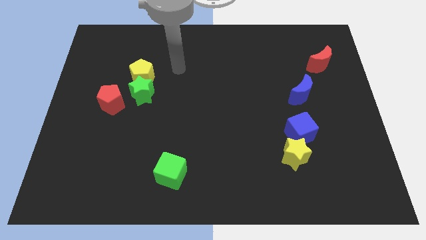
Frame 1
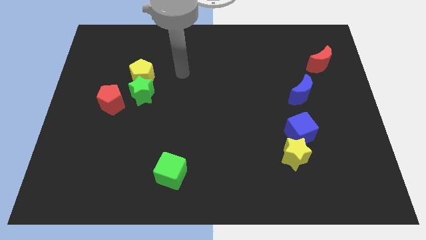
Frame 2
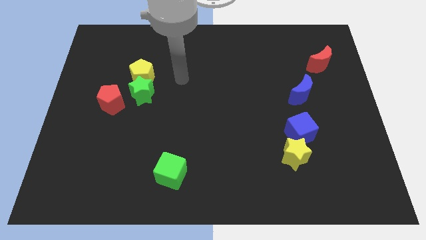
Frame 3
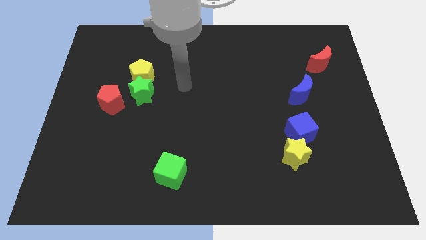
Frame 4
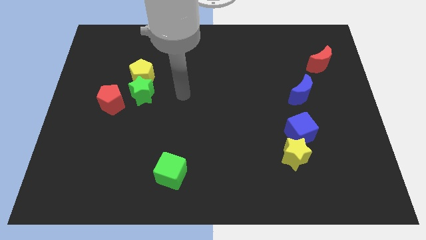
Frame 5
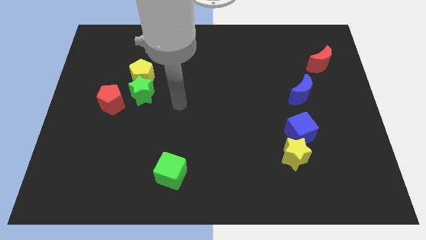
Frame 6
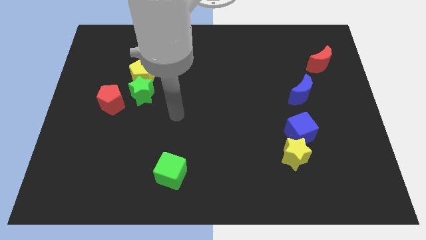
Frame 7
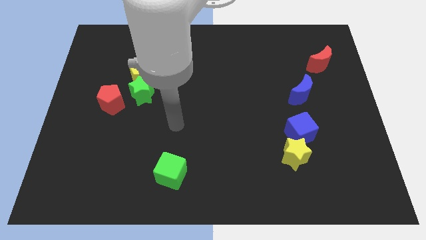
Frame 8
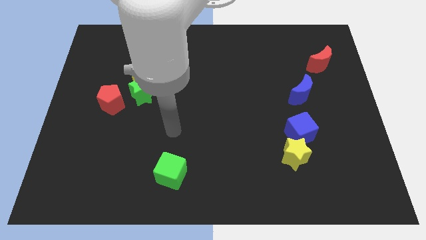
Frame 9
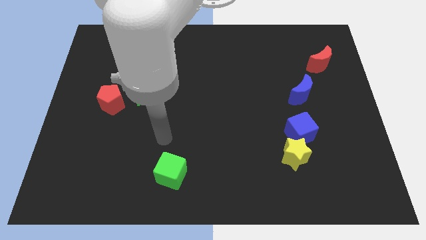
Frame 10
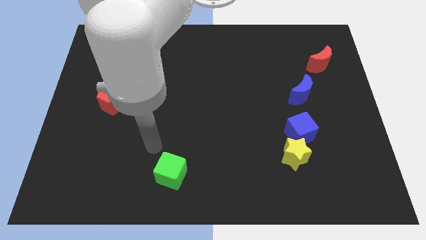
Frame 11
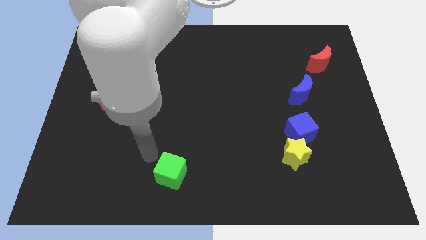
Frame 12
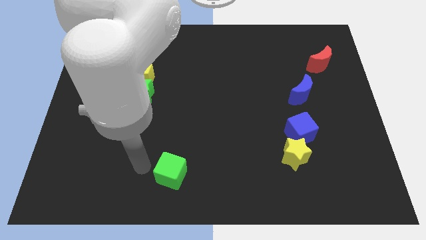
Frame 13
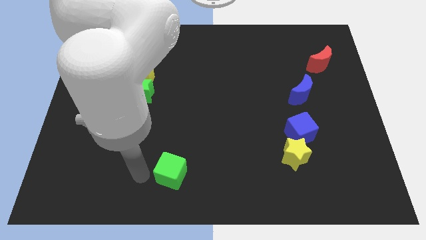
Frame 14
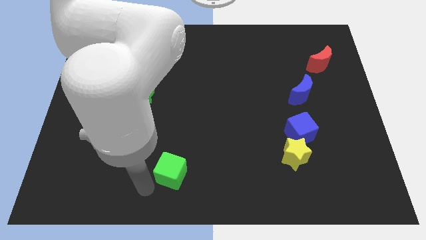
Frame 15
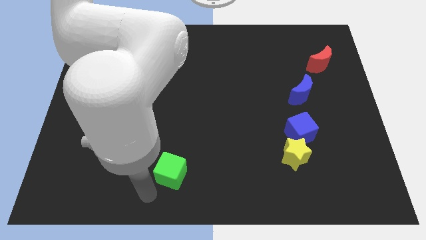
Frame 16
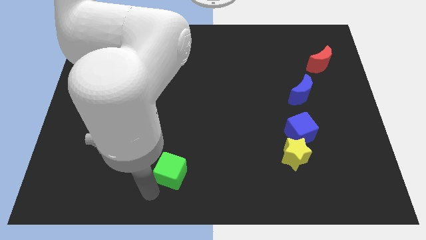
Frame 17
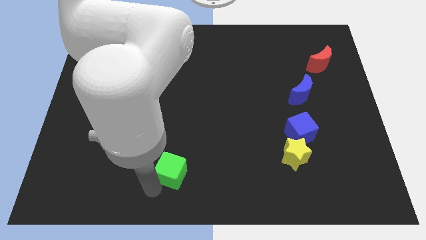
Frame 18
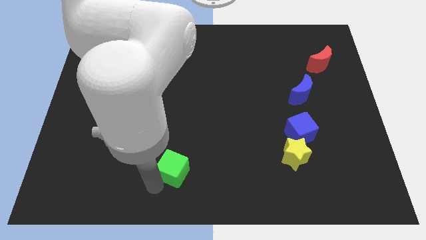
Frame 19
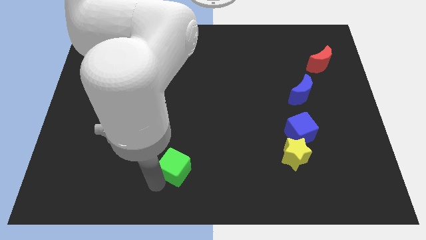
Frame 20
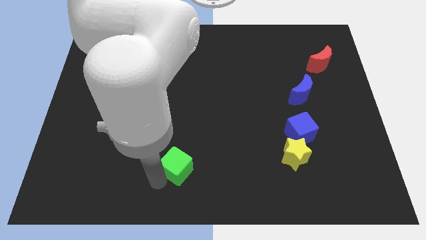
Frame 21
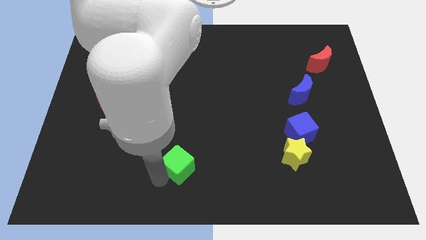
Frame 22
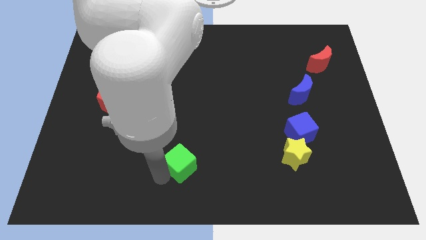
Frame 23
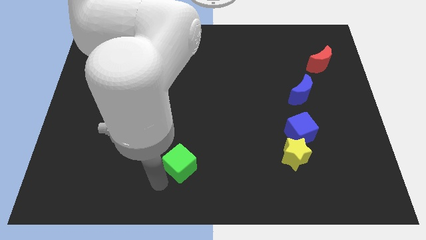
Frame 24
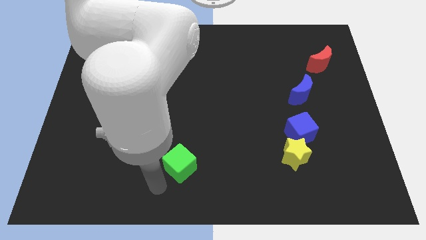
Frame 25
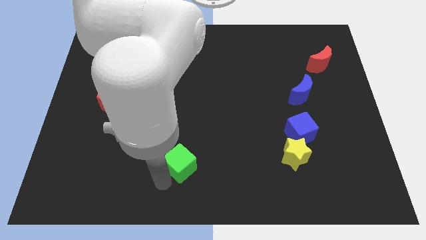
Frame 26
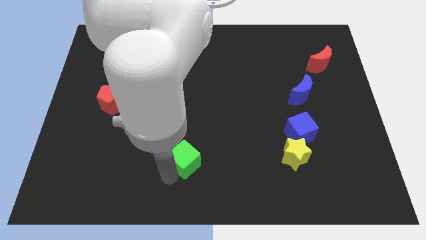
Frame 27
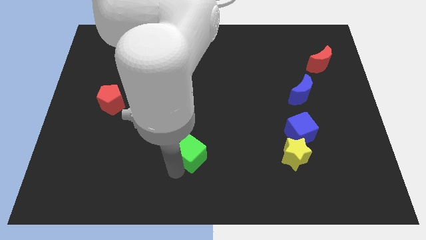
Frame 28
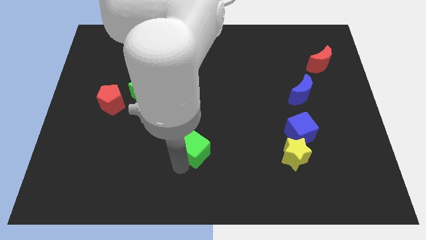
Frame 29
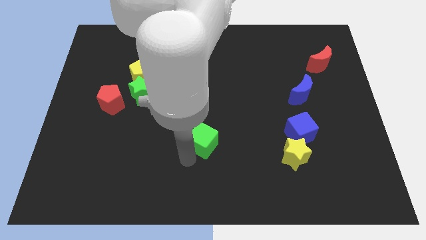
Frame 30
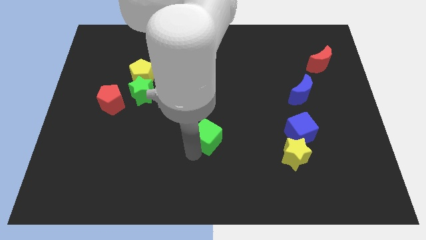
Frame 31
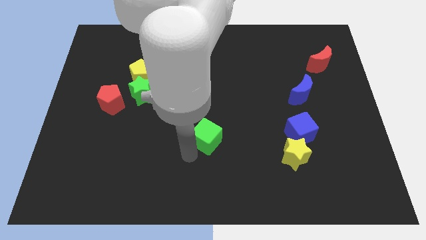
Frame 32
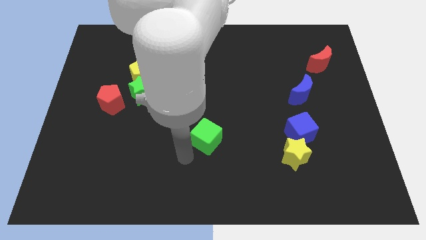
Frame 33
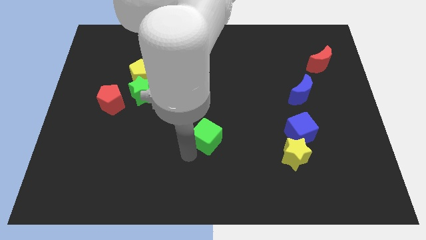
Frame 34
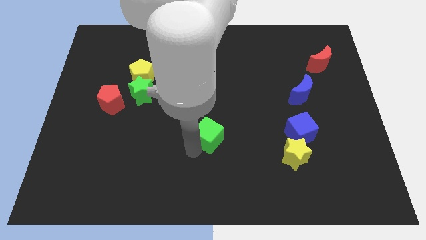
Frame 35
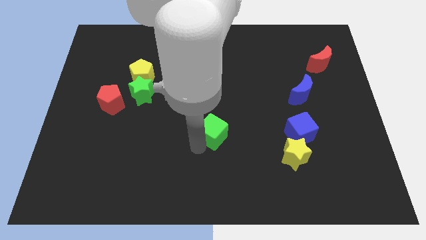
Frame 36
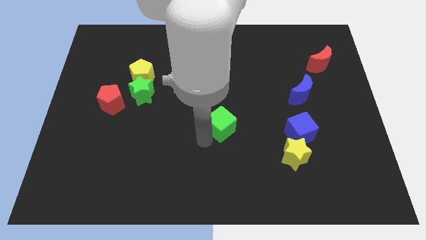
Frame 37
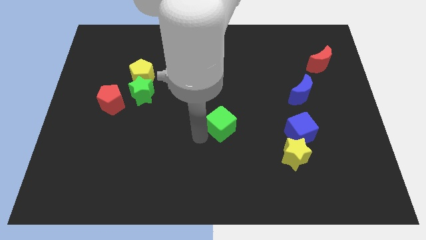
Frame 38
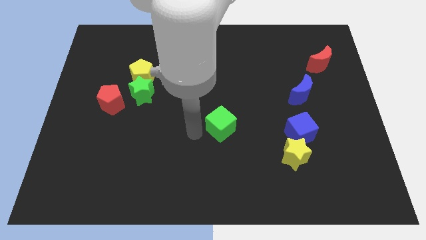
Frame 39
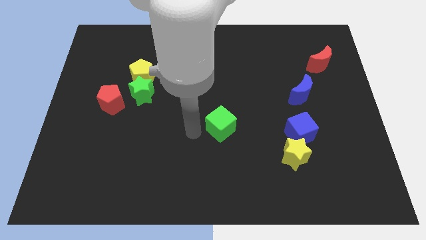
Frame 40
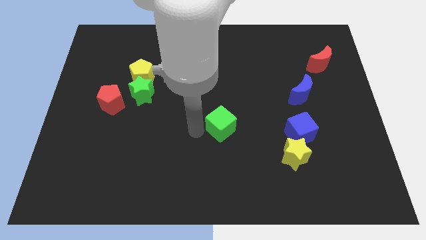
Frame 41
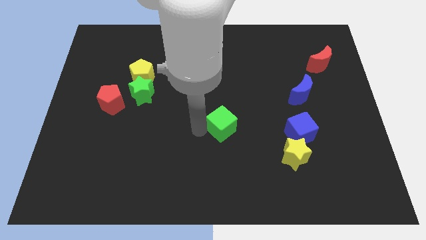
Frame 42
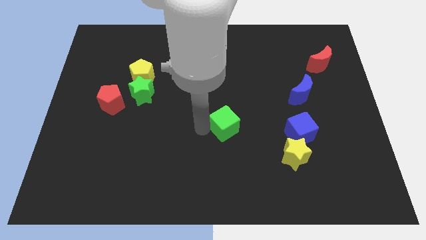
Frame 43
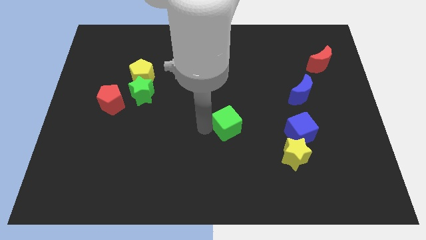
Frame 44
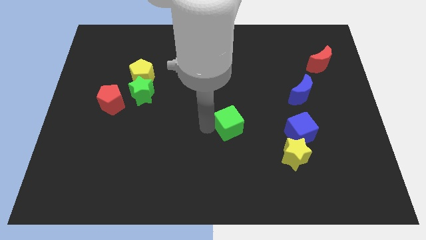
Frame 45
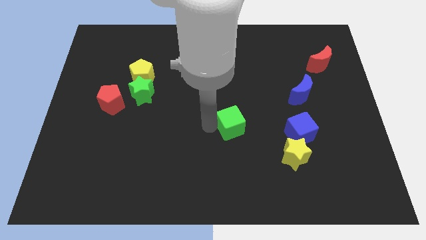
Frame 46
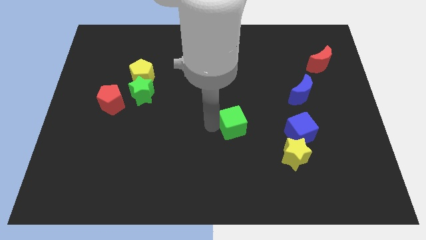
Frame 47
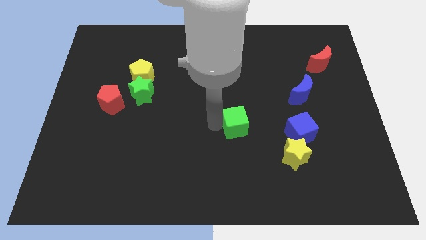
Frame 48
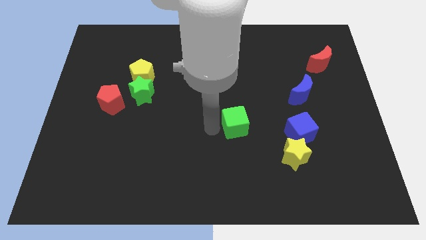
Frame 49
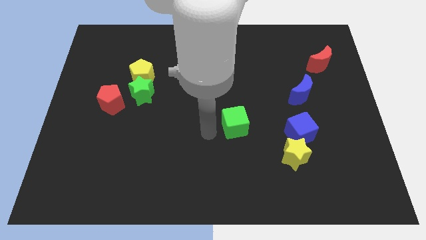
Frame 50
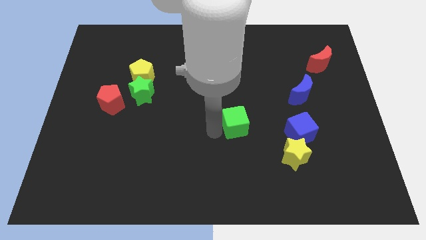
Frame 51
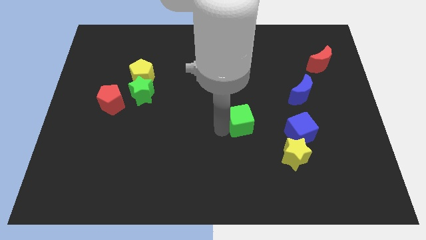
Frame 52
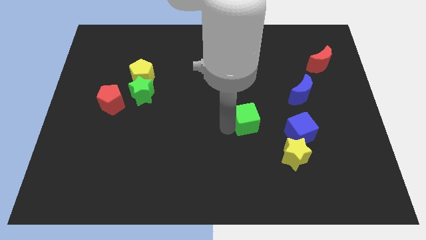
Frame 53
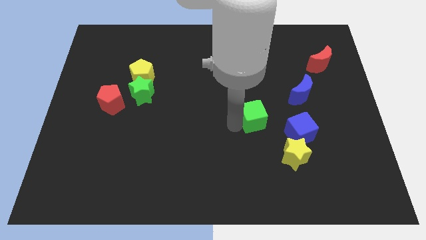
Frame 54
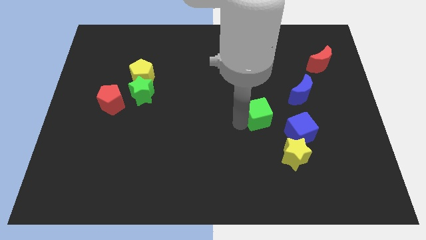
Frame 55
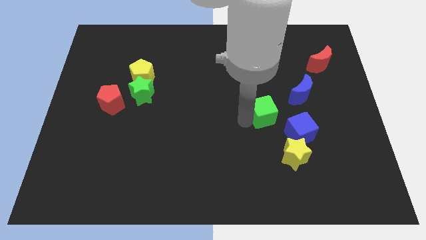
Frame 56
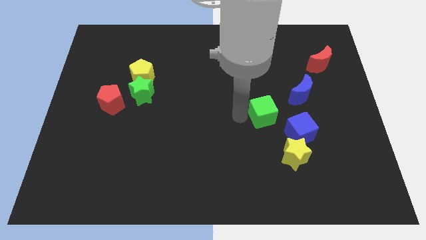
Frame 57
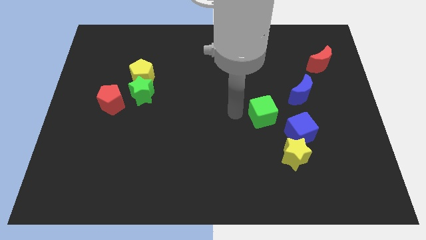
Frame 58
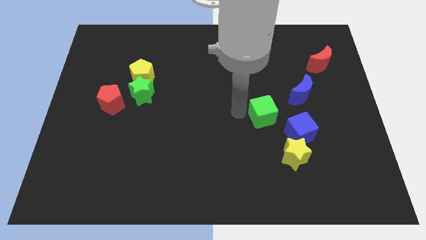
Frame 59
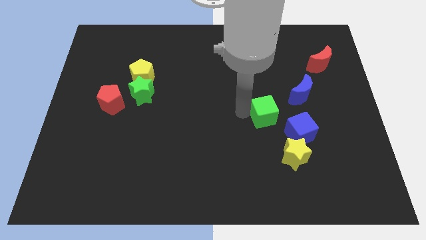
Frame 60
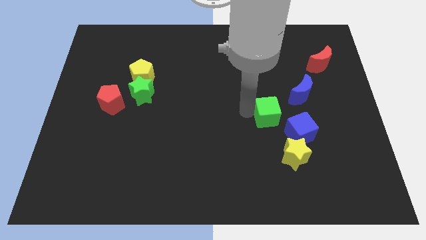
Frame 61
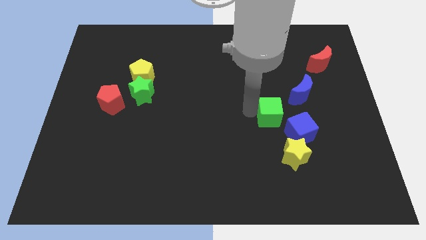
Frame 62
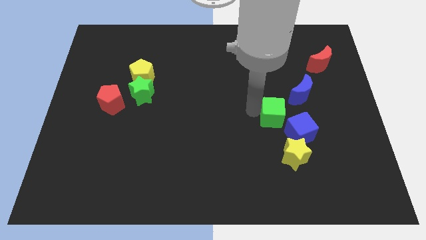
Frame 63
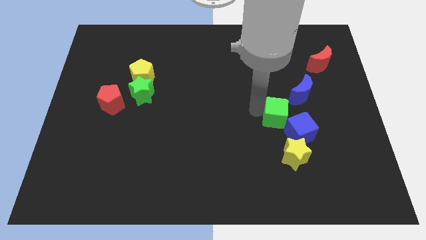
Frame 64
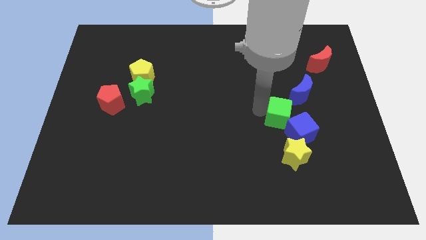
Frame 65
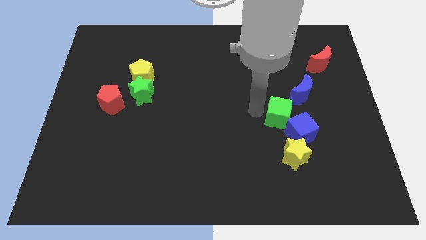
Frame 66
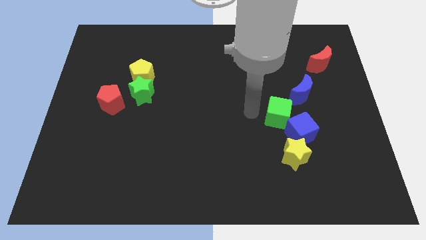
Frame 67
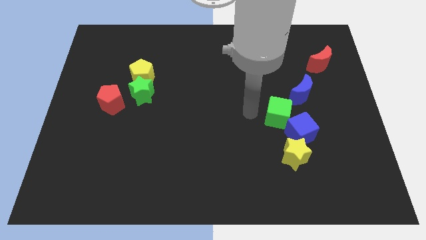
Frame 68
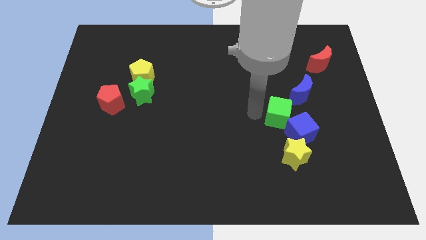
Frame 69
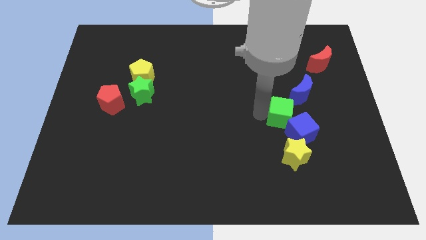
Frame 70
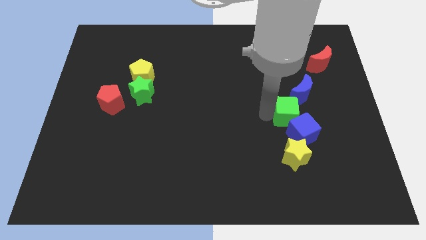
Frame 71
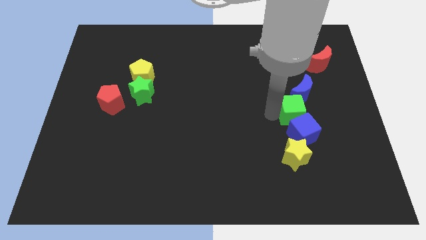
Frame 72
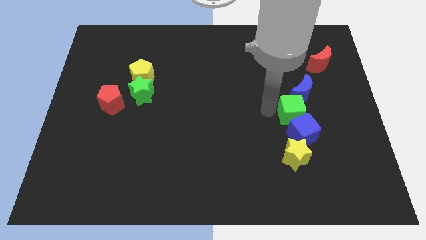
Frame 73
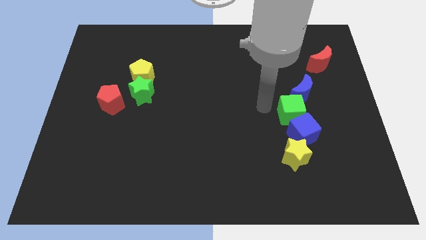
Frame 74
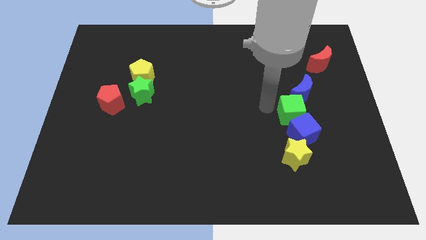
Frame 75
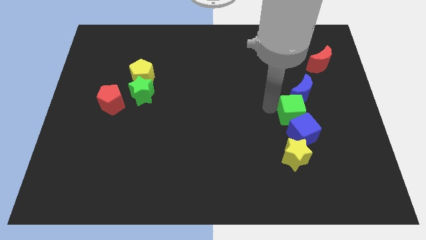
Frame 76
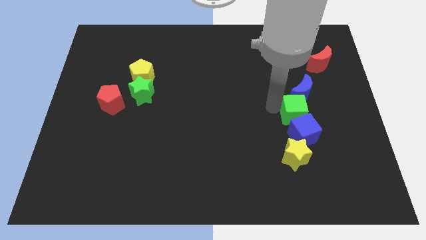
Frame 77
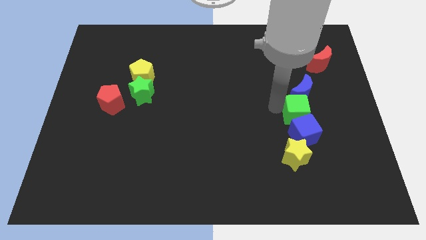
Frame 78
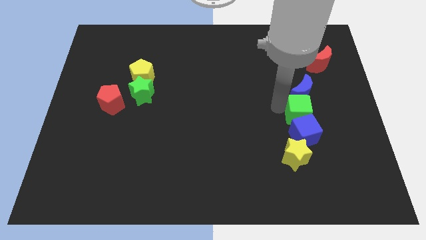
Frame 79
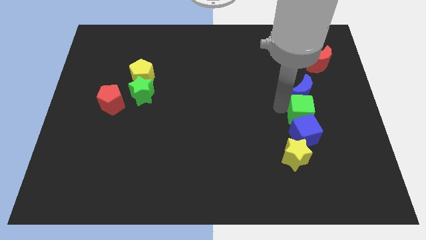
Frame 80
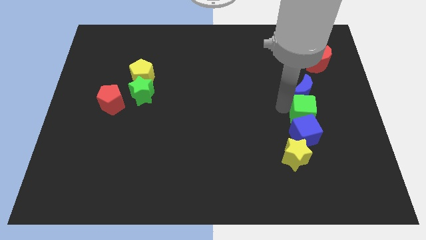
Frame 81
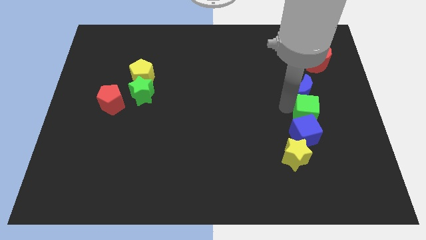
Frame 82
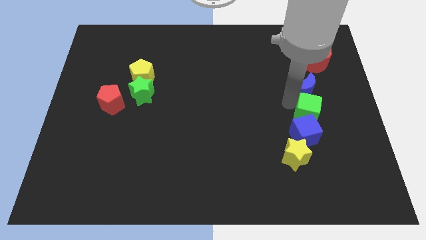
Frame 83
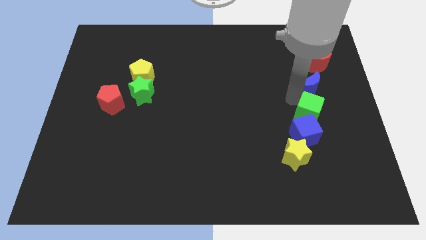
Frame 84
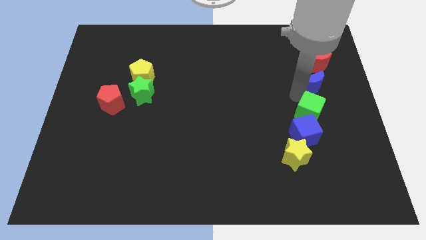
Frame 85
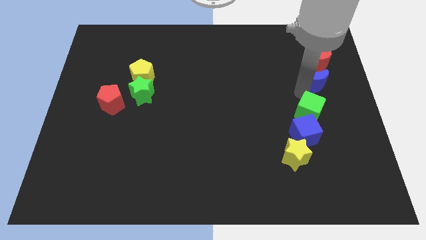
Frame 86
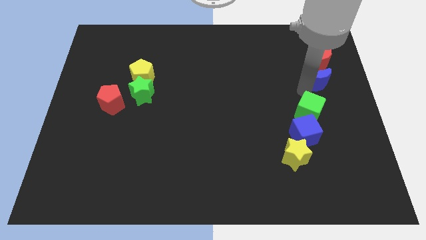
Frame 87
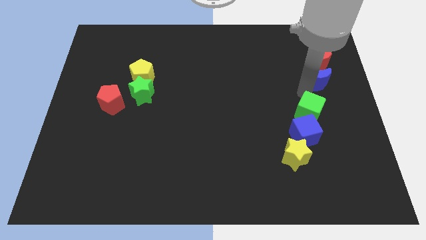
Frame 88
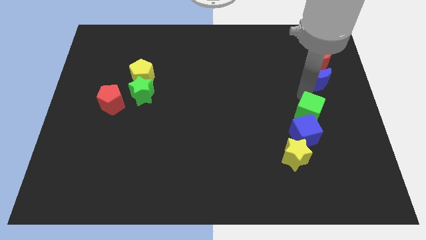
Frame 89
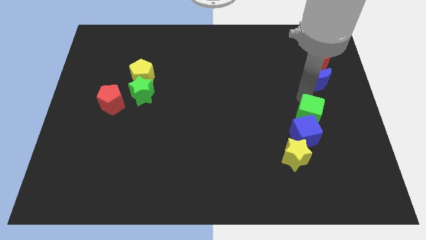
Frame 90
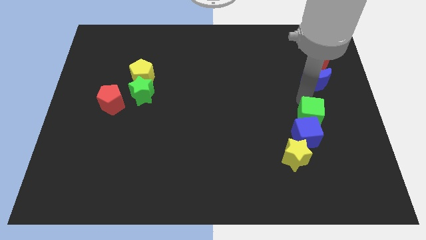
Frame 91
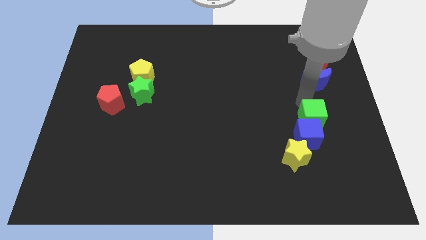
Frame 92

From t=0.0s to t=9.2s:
push the green cube to the top right of the yellow star
